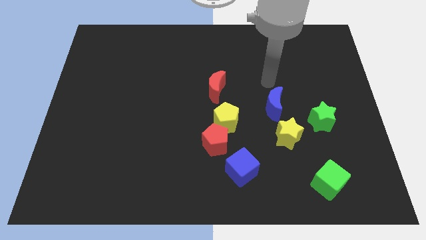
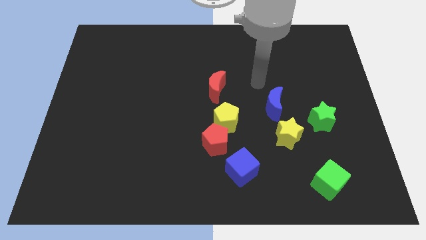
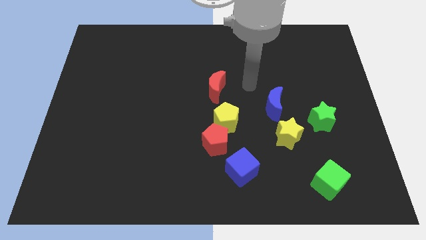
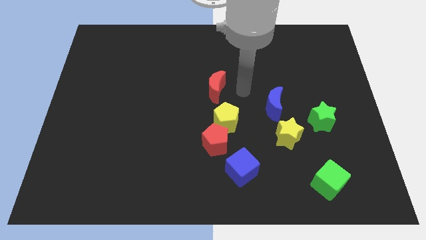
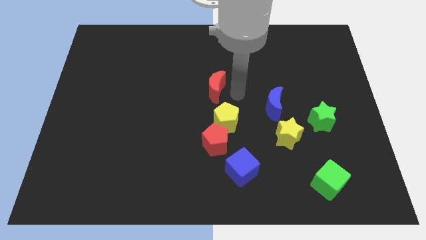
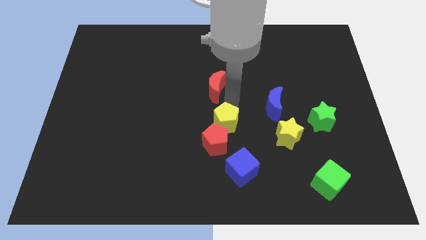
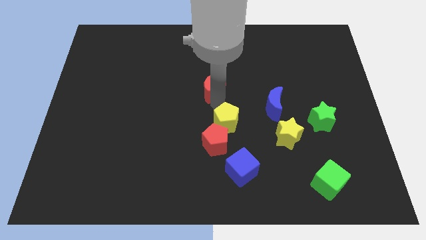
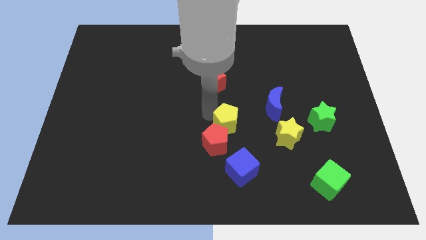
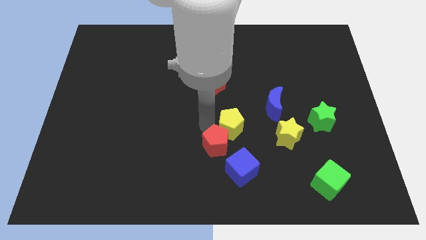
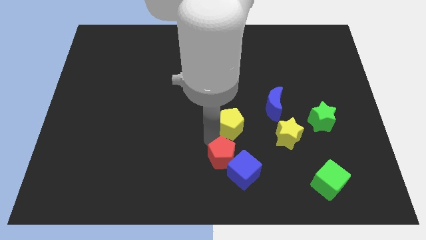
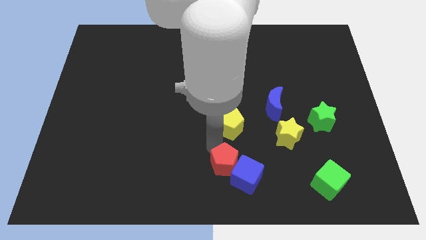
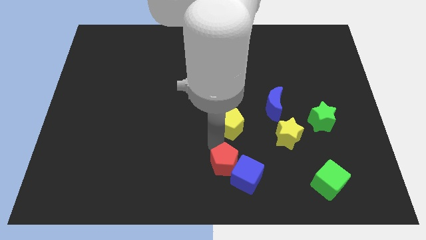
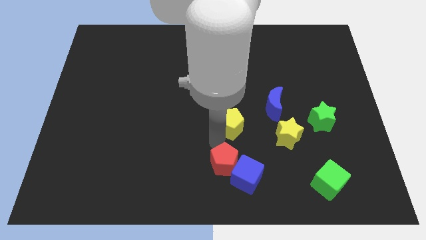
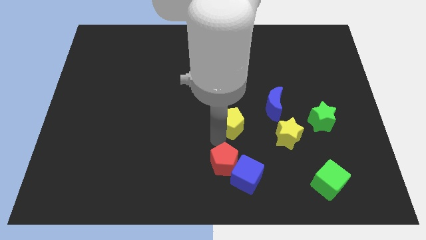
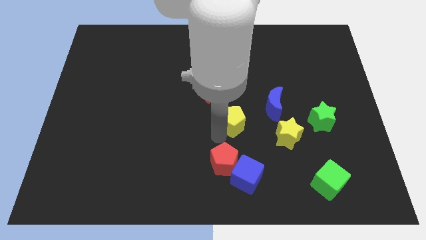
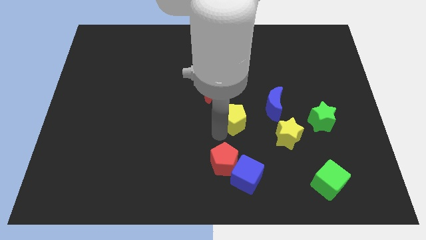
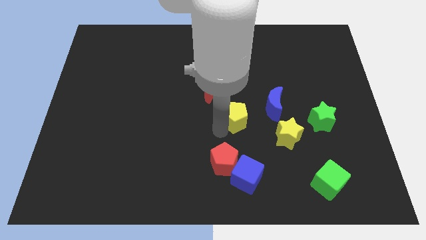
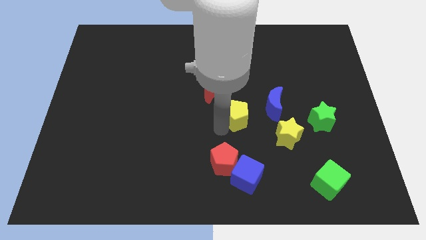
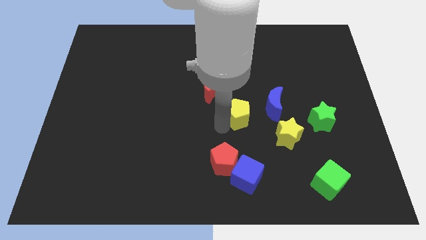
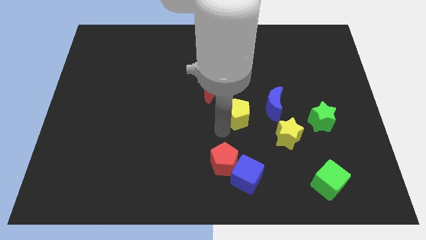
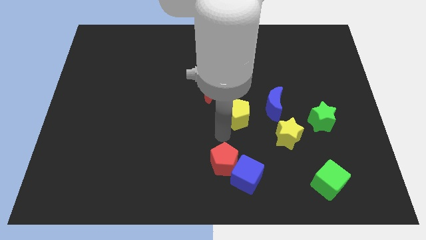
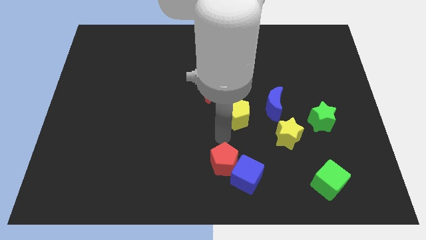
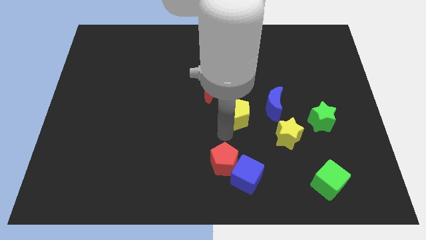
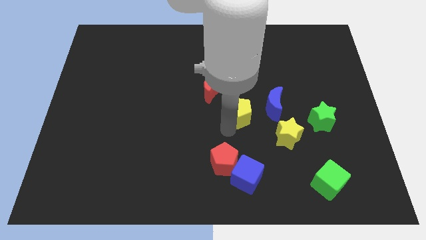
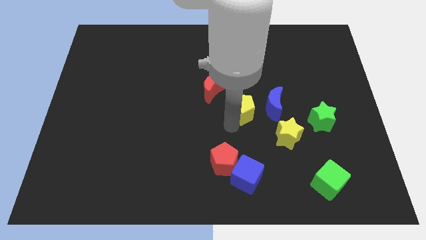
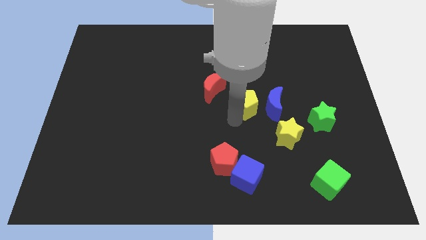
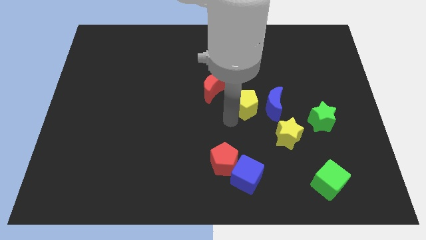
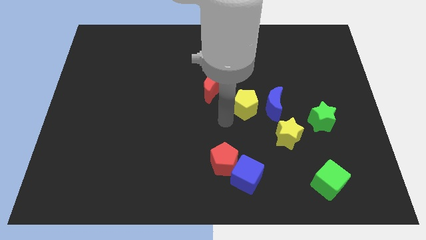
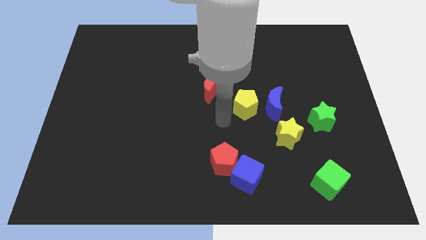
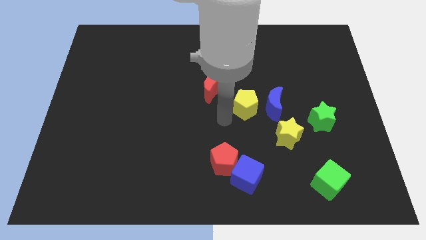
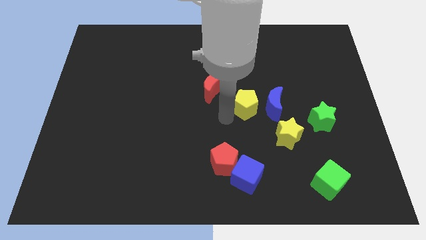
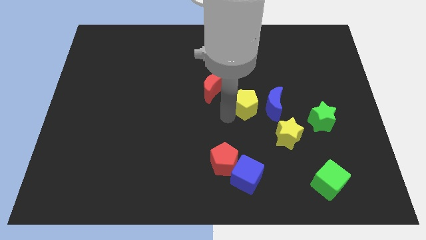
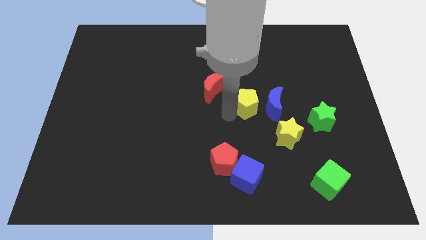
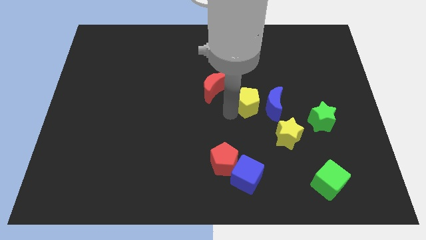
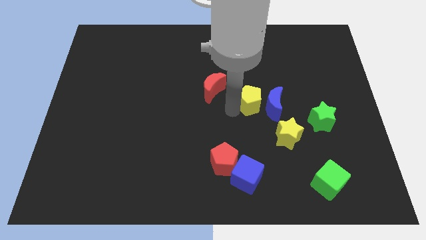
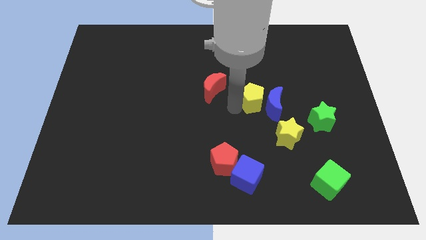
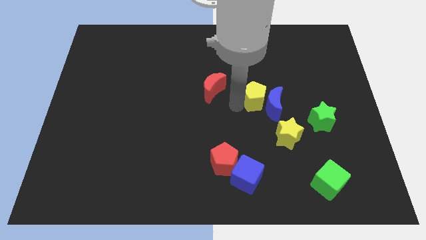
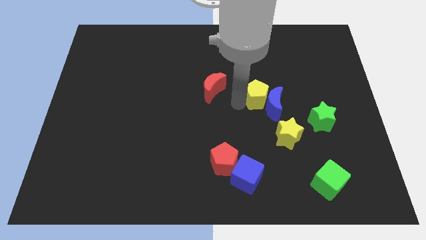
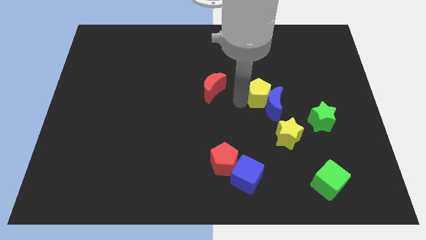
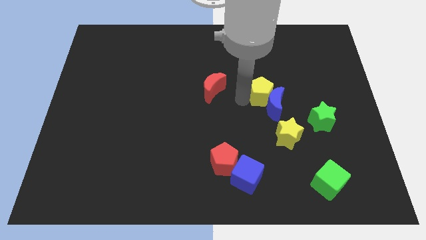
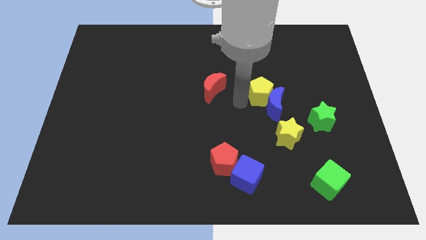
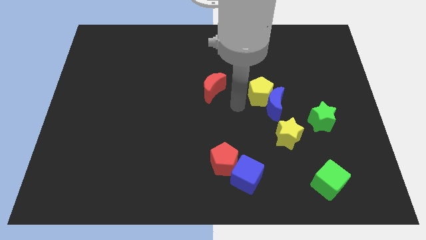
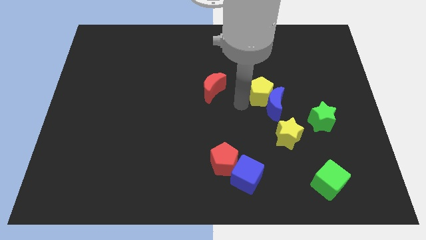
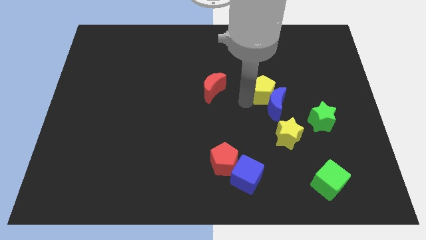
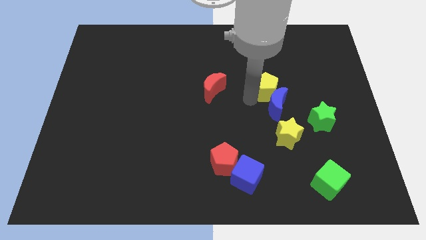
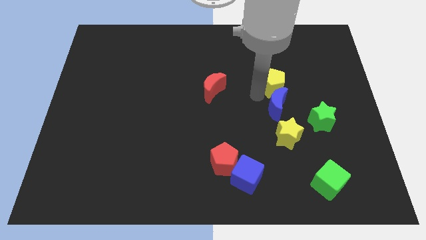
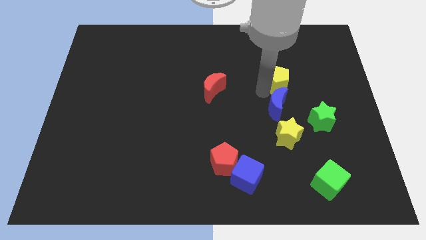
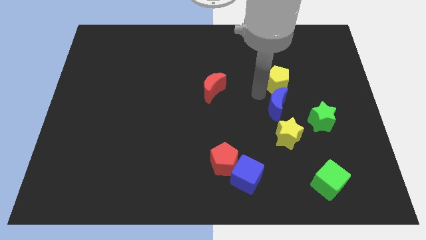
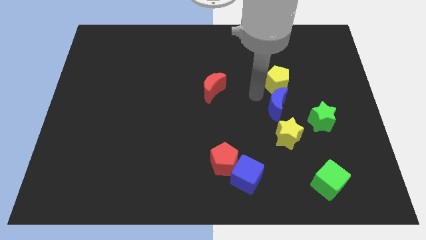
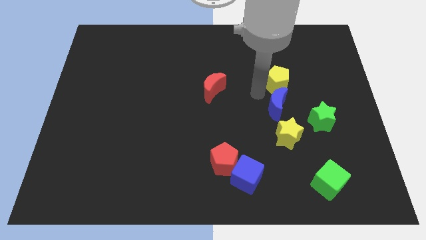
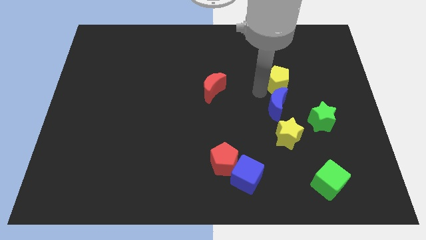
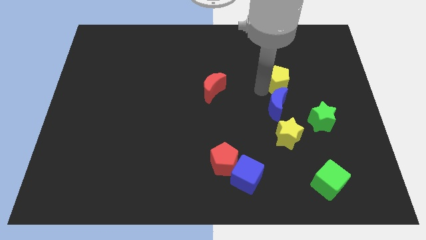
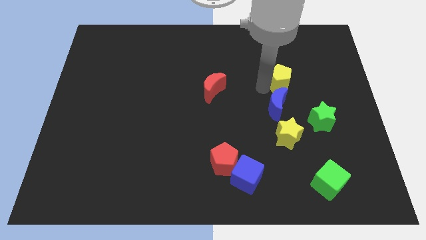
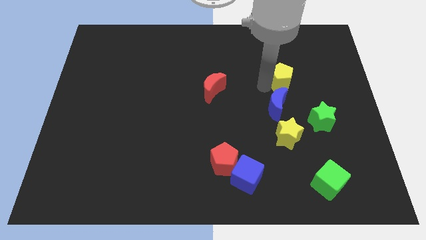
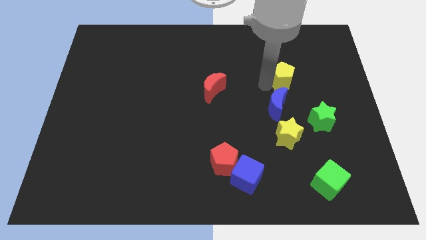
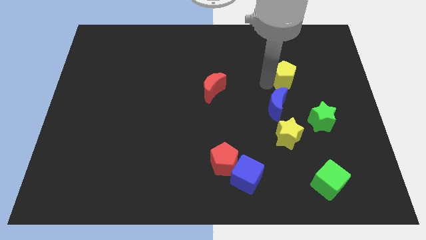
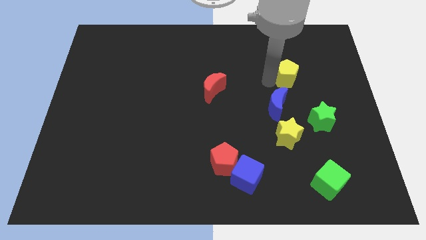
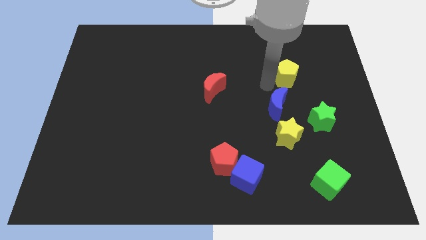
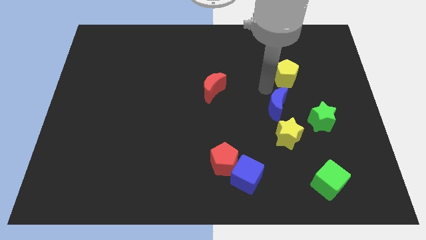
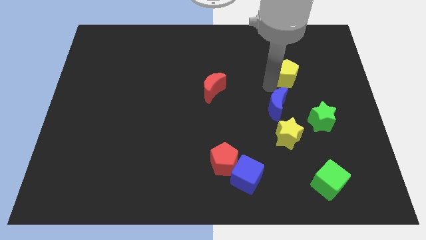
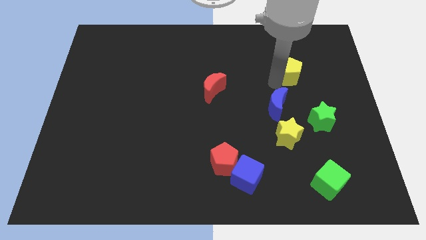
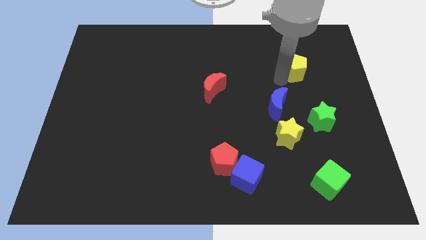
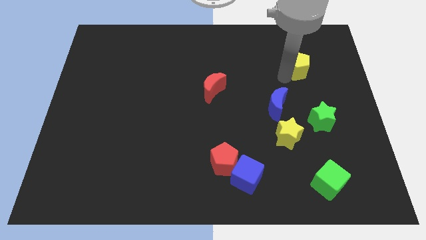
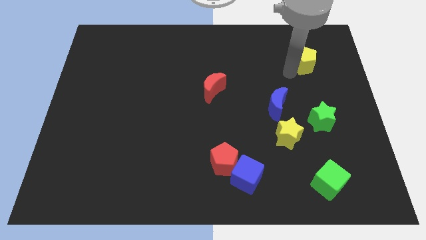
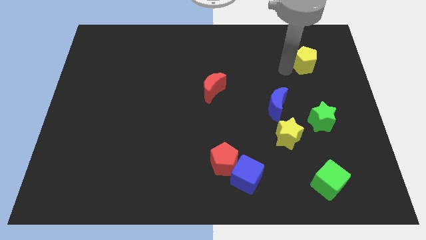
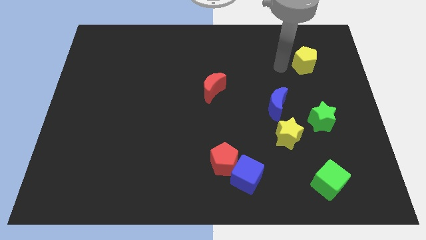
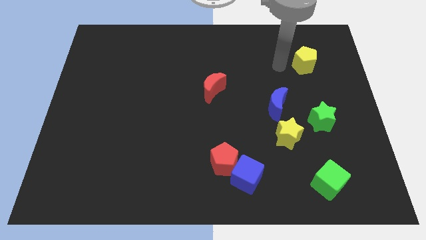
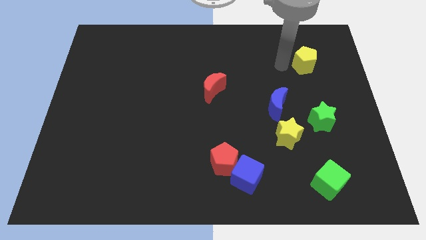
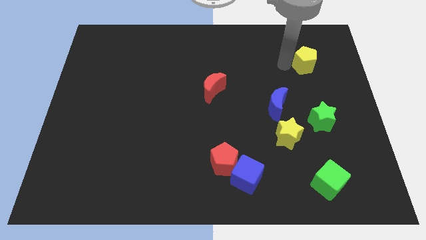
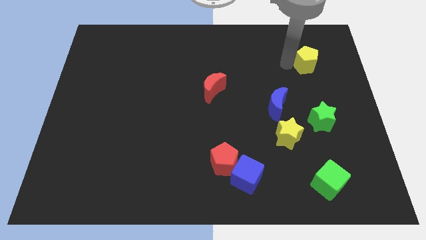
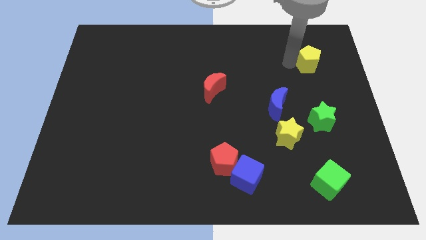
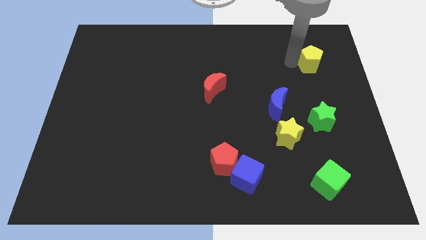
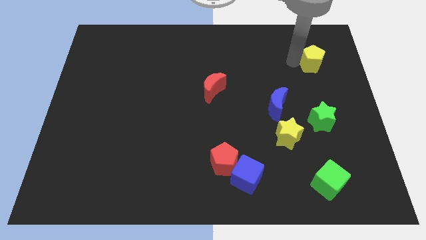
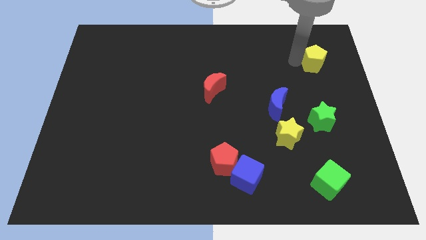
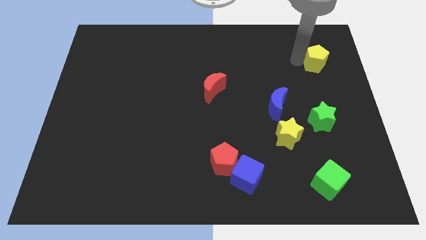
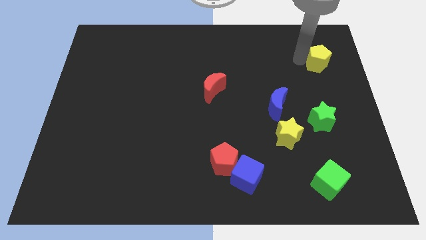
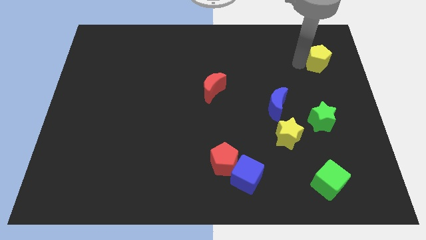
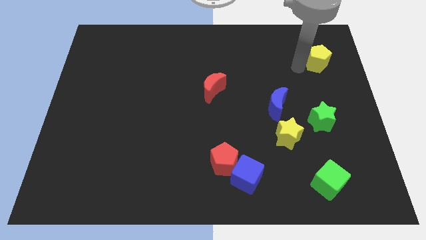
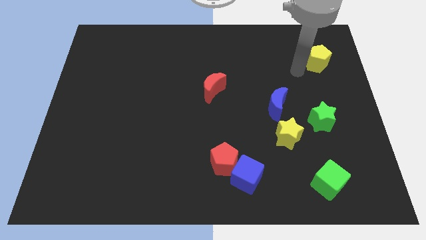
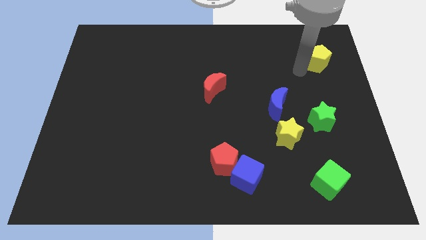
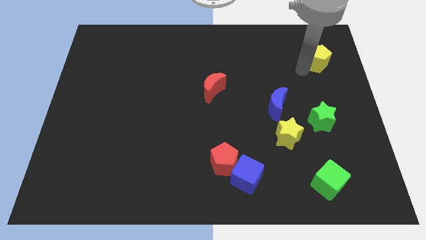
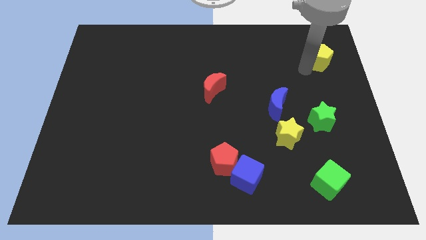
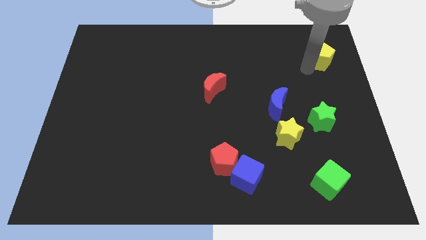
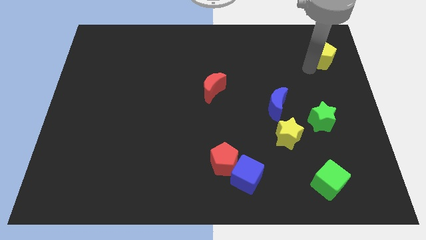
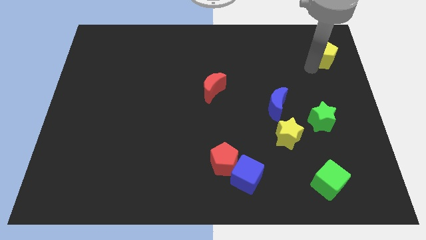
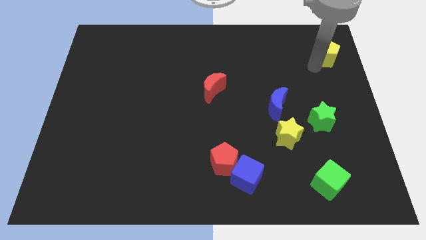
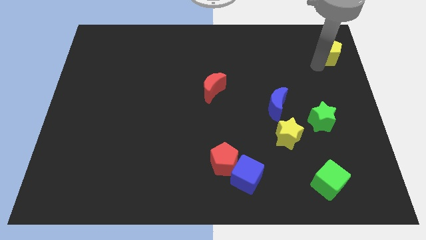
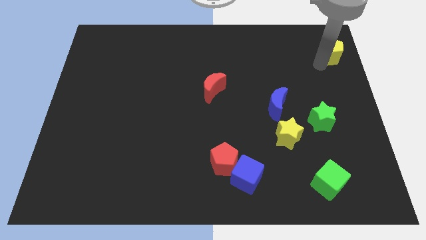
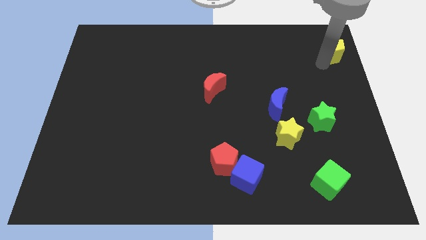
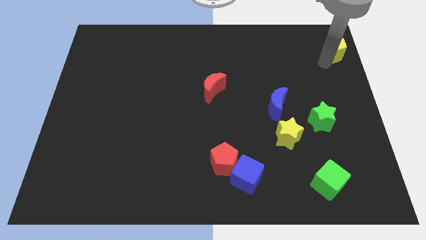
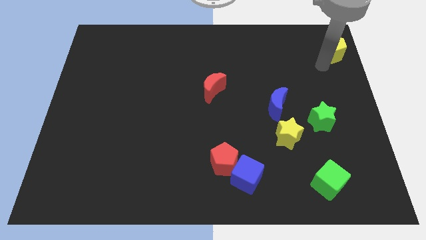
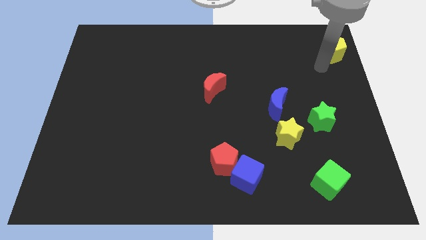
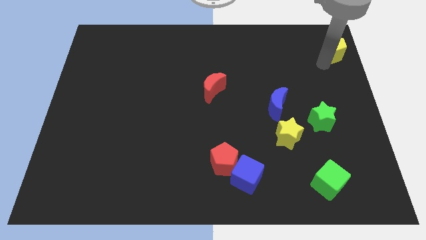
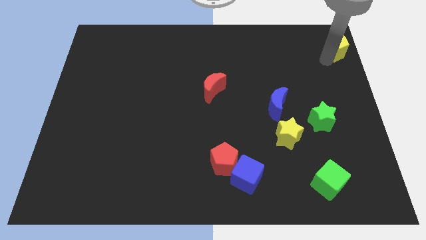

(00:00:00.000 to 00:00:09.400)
slide the yellow pentagon to the top right
